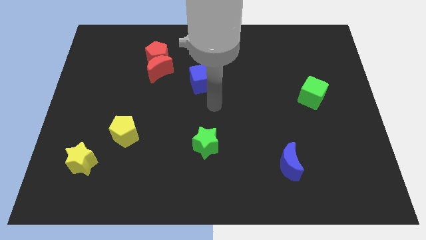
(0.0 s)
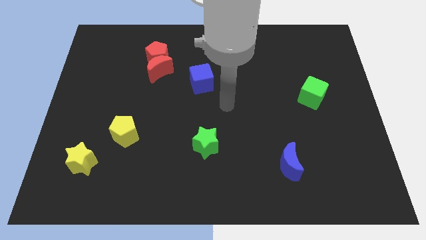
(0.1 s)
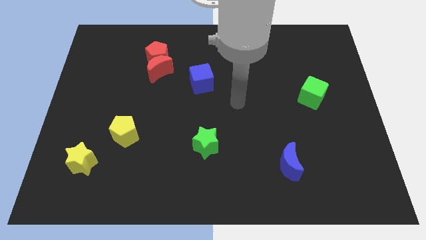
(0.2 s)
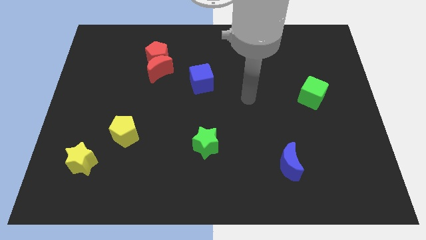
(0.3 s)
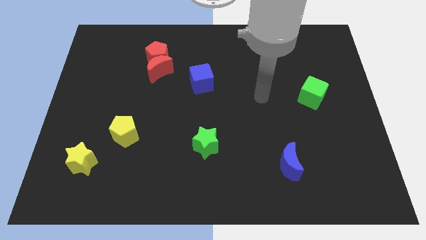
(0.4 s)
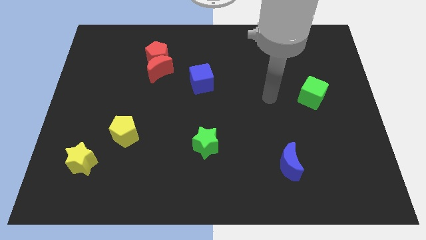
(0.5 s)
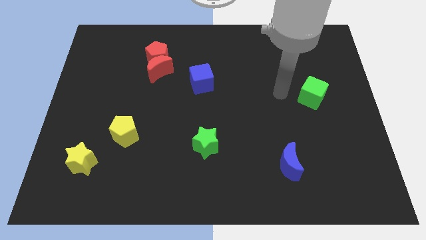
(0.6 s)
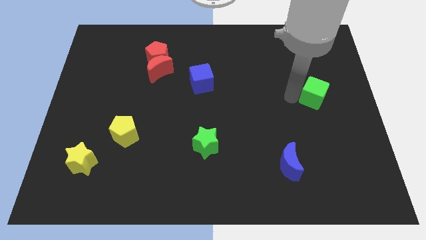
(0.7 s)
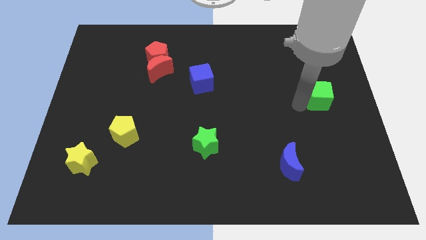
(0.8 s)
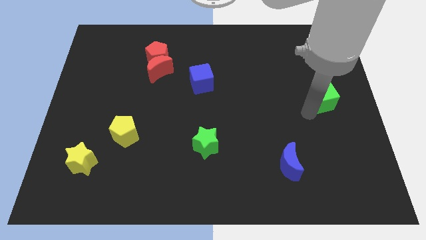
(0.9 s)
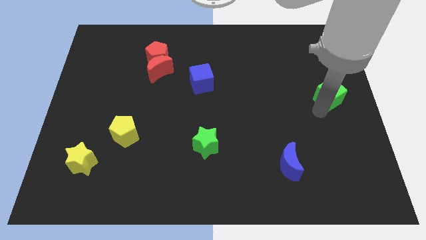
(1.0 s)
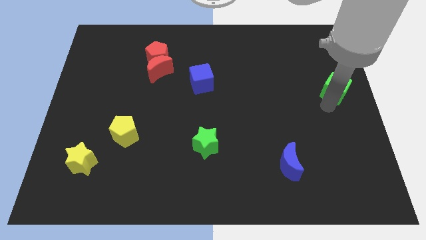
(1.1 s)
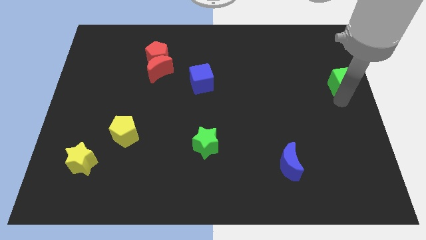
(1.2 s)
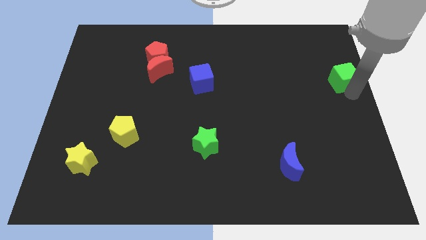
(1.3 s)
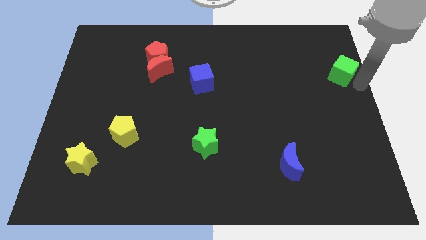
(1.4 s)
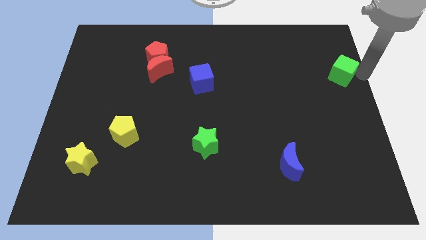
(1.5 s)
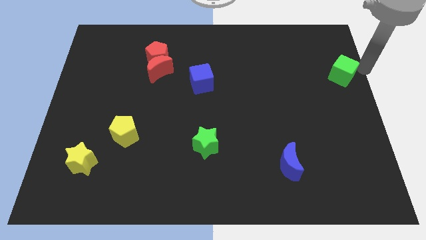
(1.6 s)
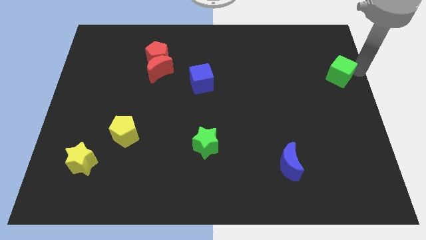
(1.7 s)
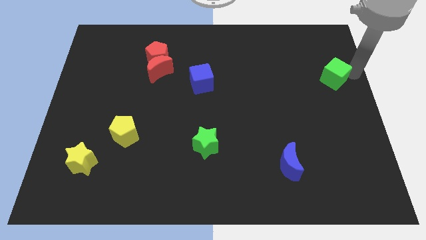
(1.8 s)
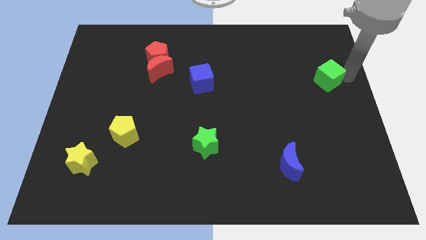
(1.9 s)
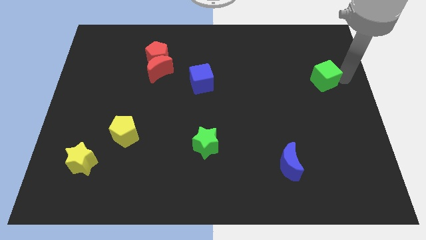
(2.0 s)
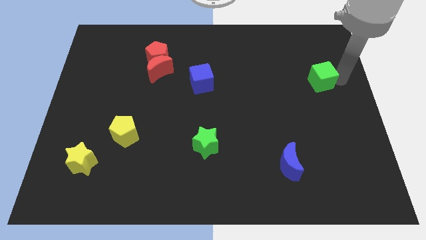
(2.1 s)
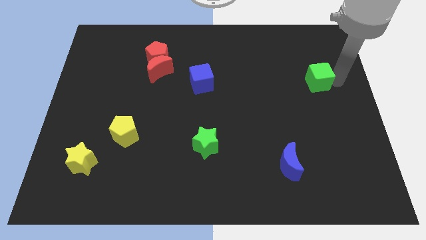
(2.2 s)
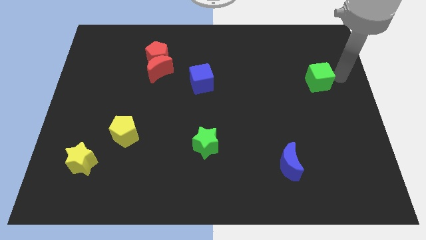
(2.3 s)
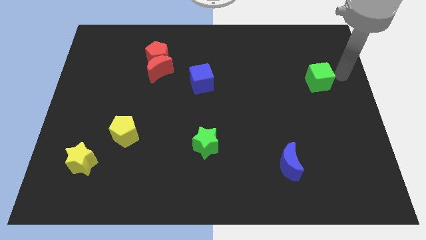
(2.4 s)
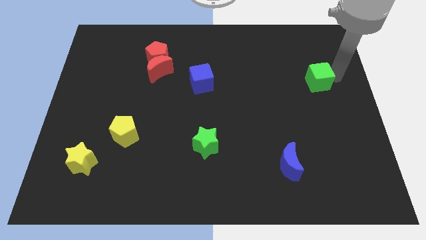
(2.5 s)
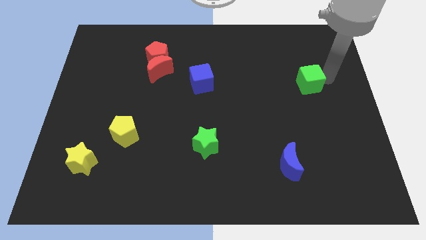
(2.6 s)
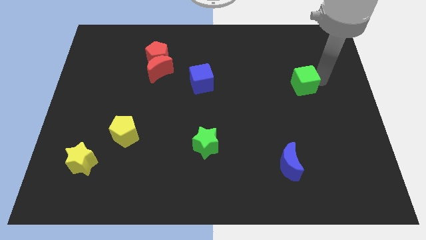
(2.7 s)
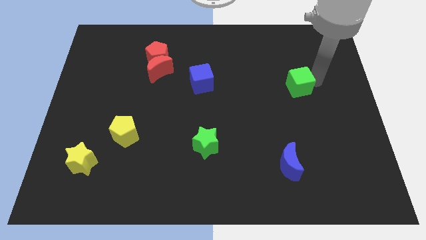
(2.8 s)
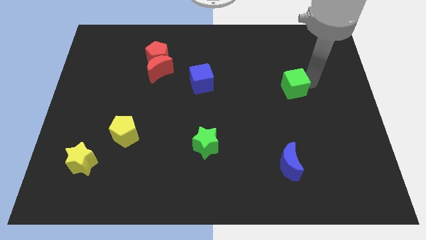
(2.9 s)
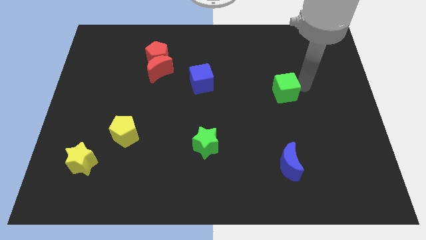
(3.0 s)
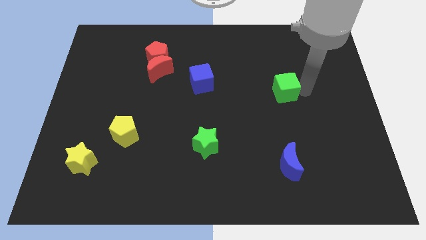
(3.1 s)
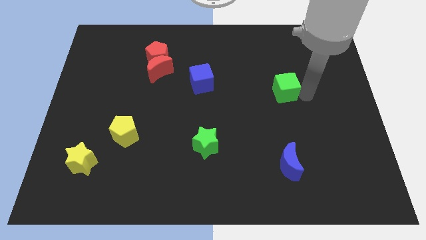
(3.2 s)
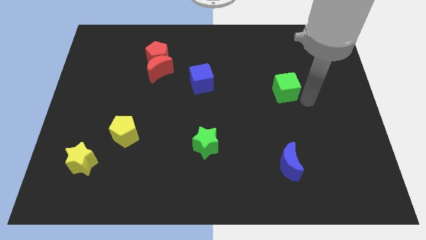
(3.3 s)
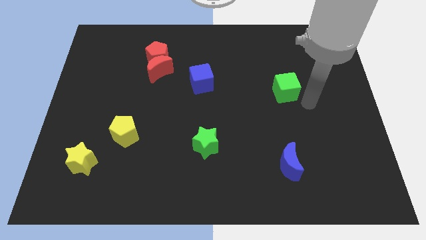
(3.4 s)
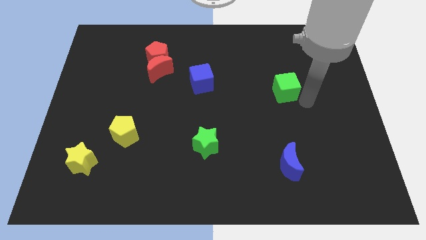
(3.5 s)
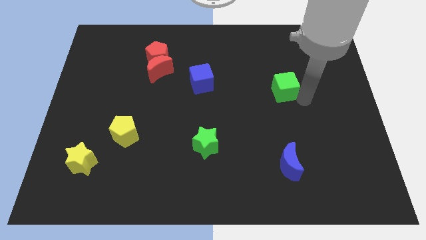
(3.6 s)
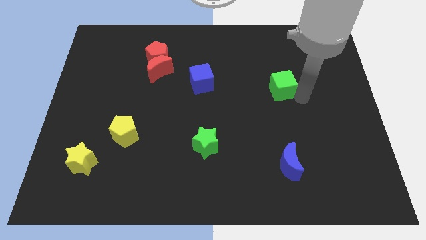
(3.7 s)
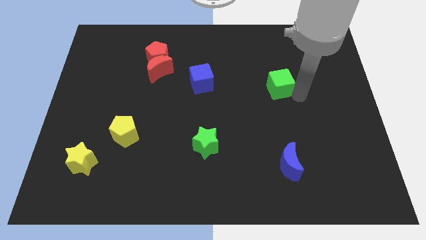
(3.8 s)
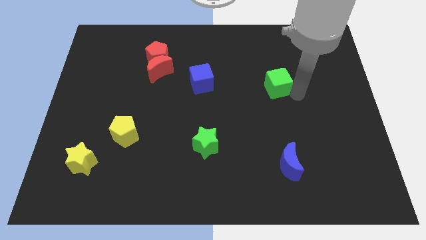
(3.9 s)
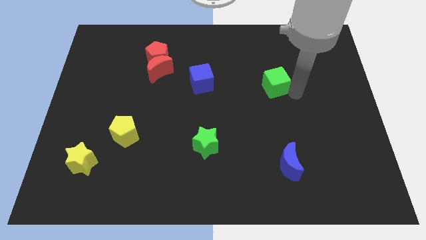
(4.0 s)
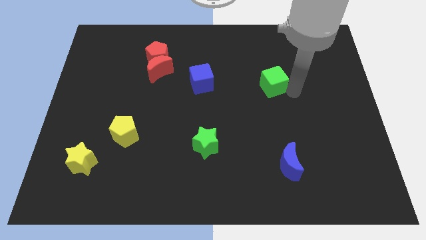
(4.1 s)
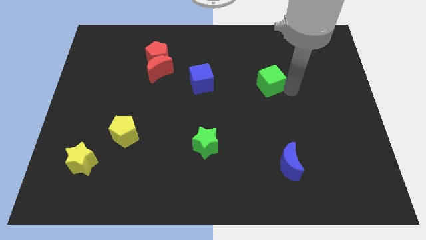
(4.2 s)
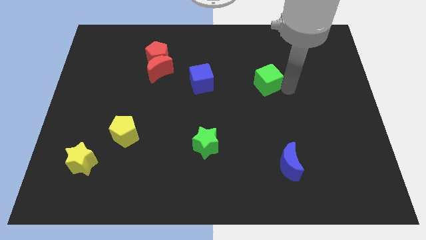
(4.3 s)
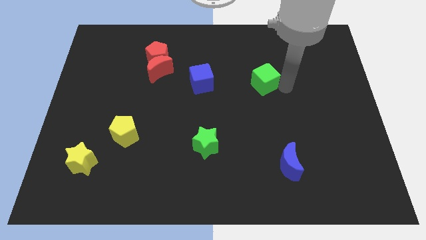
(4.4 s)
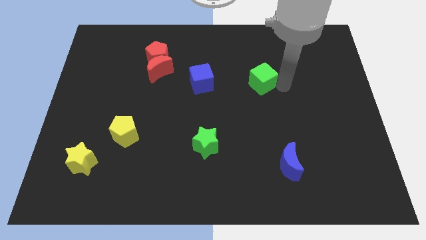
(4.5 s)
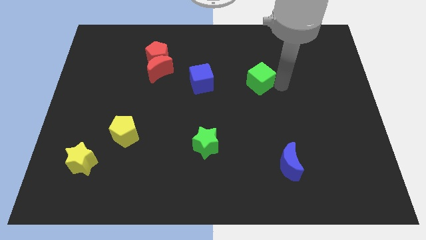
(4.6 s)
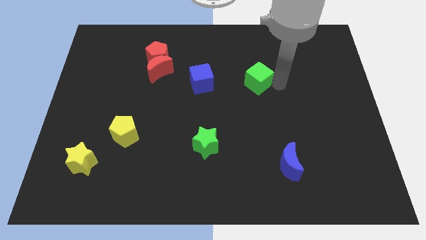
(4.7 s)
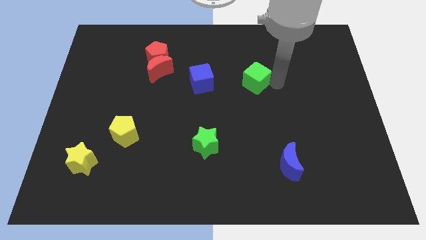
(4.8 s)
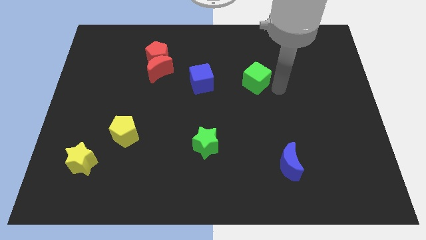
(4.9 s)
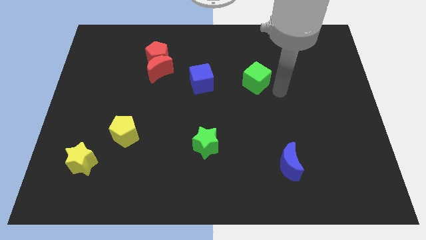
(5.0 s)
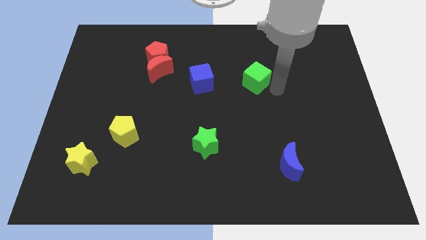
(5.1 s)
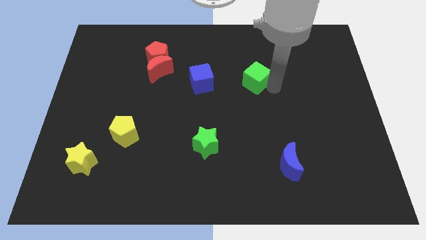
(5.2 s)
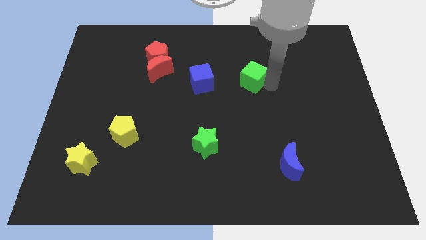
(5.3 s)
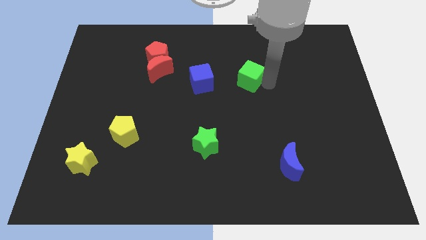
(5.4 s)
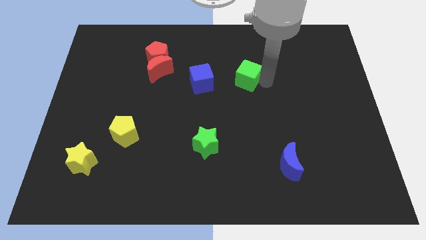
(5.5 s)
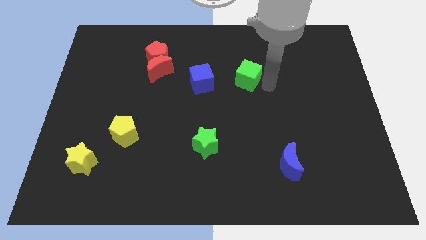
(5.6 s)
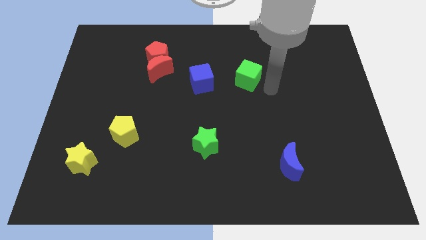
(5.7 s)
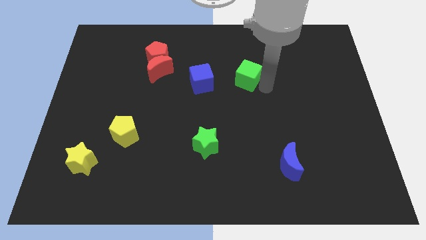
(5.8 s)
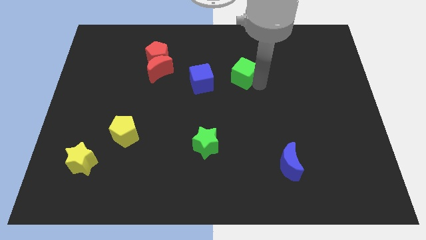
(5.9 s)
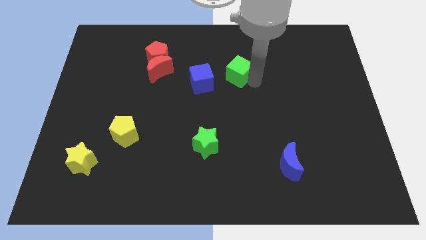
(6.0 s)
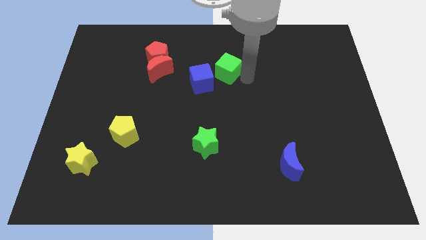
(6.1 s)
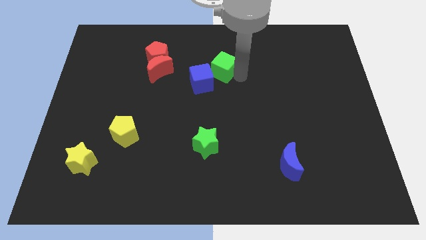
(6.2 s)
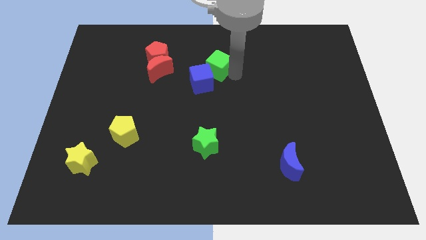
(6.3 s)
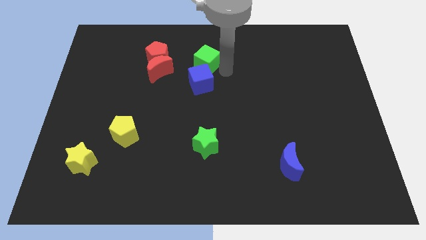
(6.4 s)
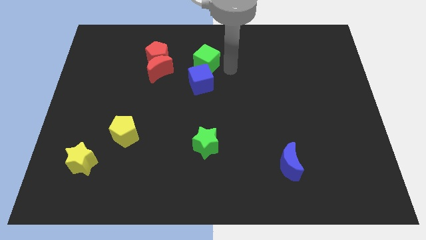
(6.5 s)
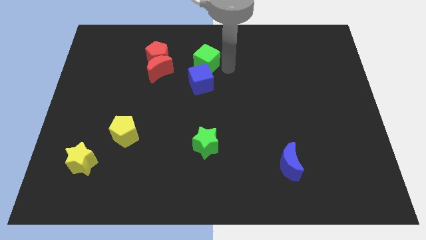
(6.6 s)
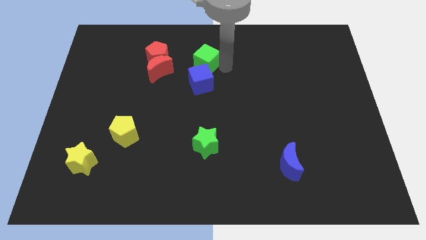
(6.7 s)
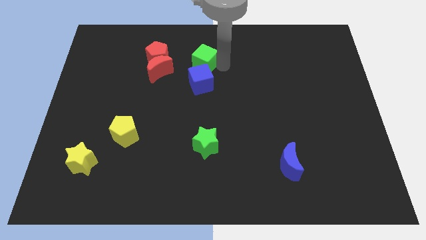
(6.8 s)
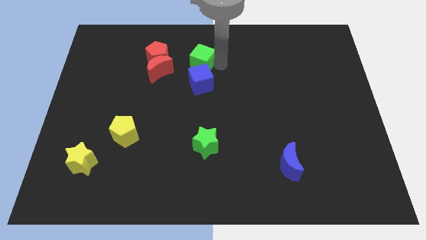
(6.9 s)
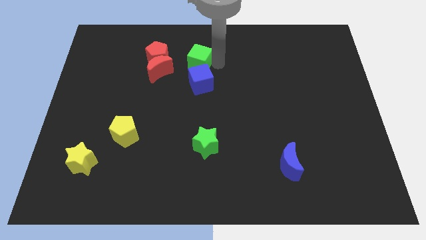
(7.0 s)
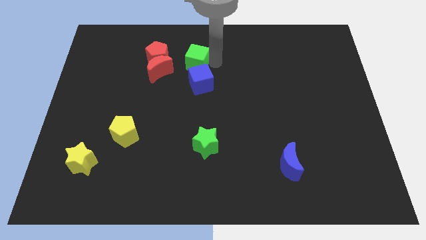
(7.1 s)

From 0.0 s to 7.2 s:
push the green cube to the top right of the red moon
